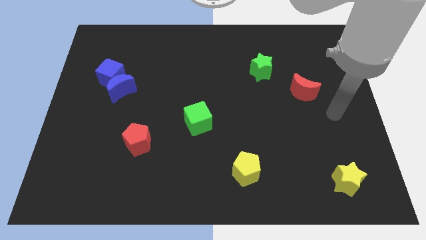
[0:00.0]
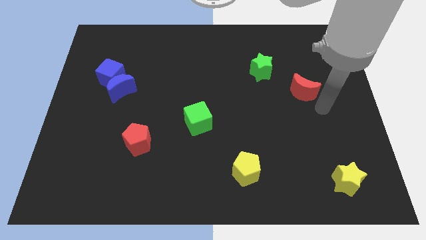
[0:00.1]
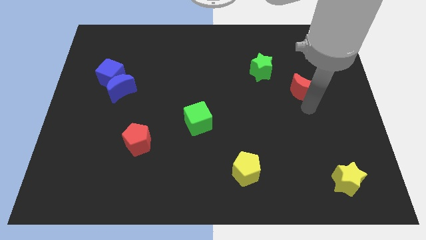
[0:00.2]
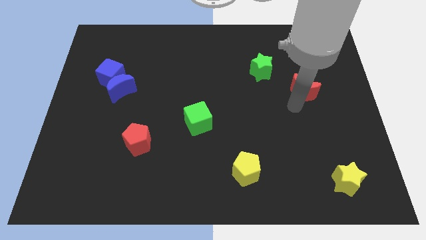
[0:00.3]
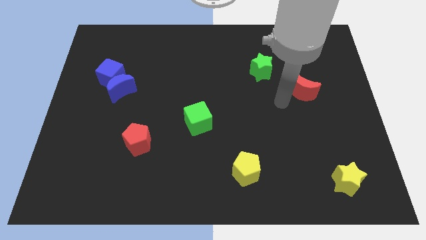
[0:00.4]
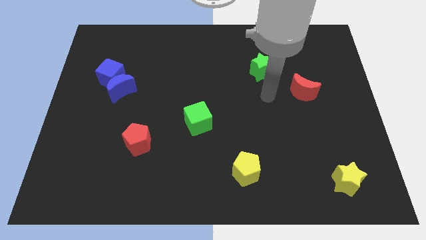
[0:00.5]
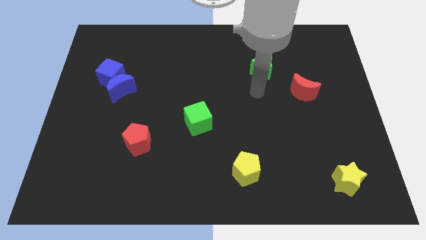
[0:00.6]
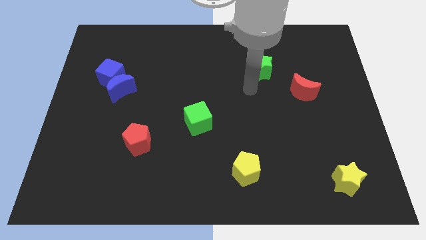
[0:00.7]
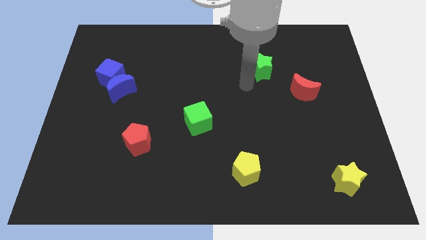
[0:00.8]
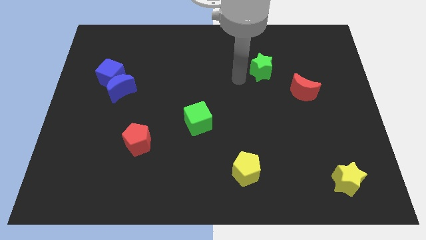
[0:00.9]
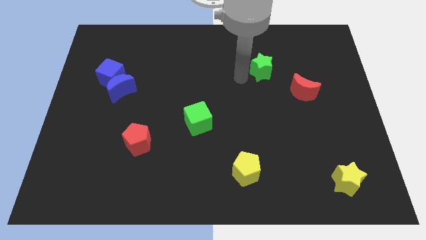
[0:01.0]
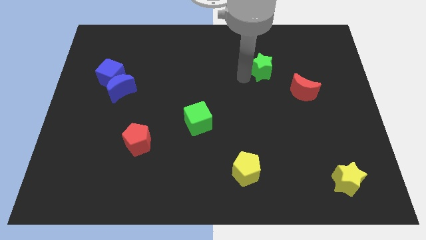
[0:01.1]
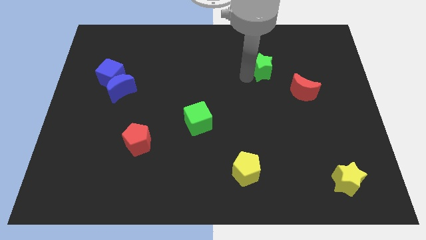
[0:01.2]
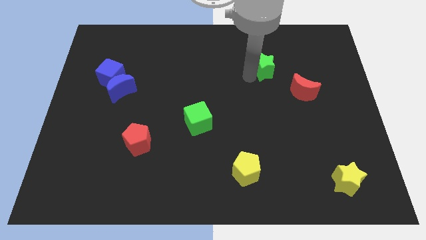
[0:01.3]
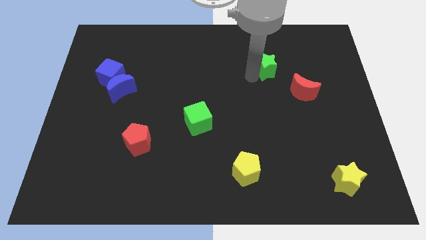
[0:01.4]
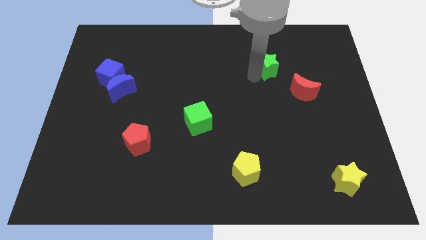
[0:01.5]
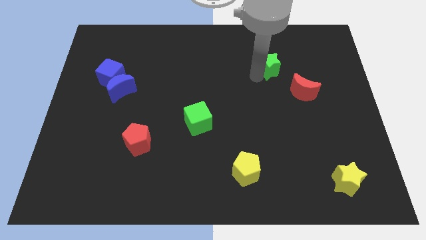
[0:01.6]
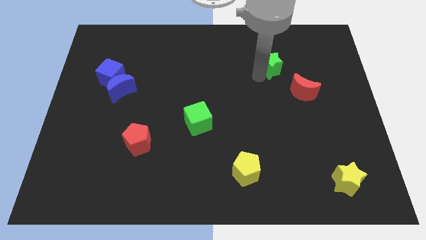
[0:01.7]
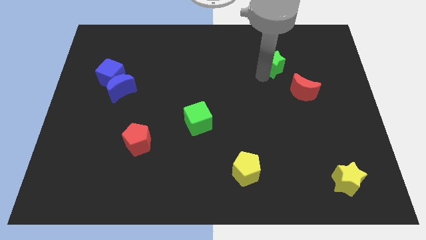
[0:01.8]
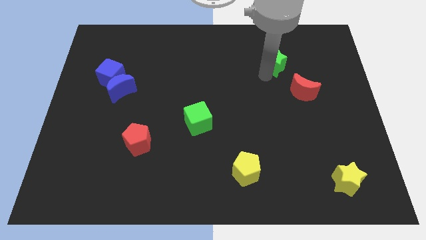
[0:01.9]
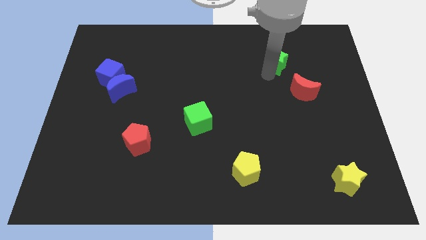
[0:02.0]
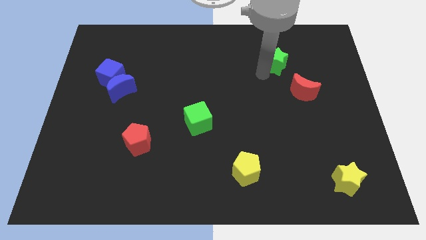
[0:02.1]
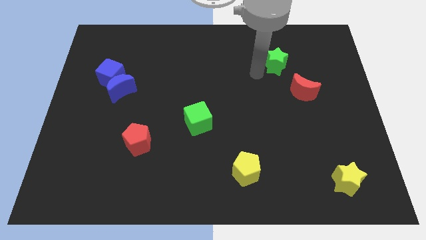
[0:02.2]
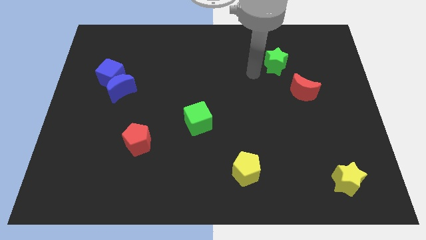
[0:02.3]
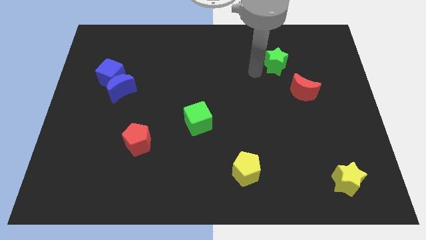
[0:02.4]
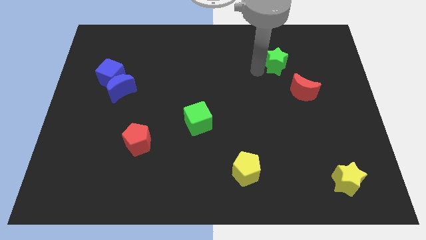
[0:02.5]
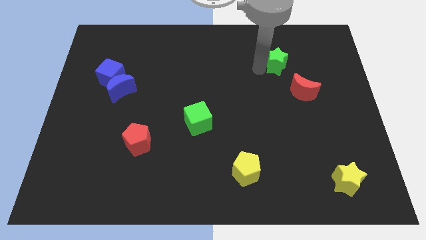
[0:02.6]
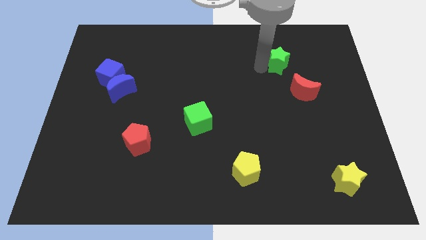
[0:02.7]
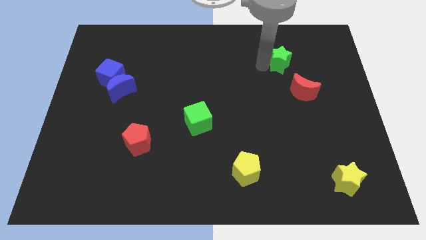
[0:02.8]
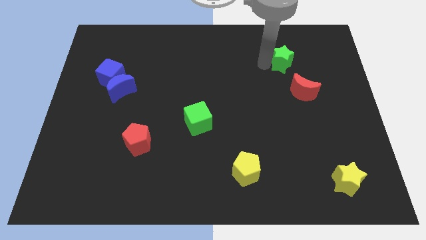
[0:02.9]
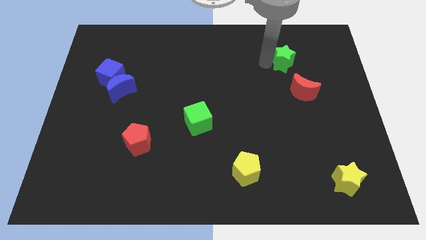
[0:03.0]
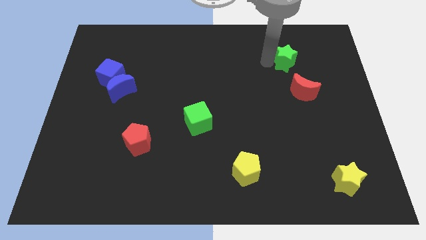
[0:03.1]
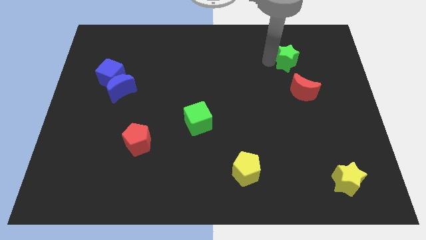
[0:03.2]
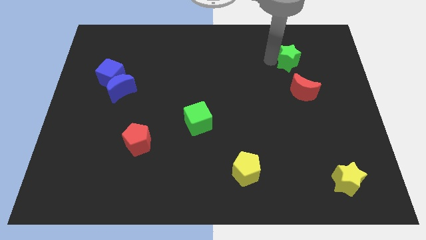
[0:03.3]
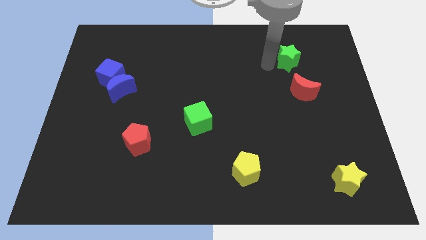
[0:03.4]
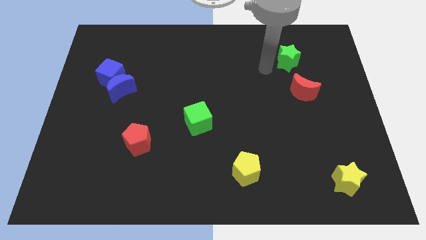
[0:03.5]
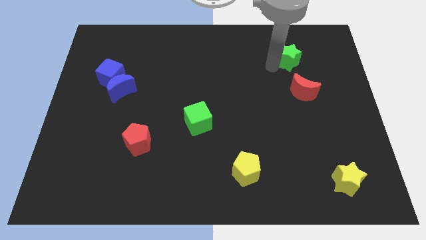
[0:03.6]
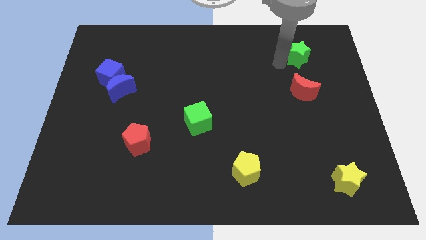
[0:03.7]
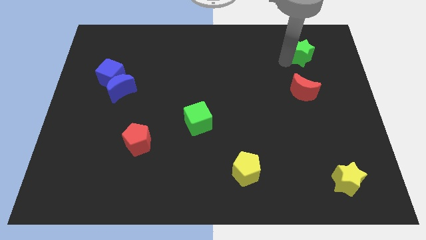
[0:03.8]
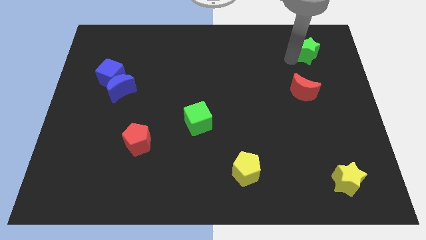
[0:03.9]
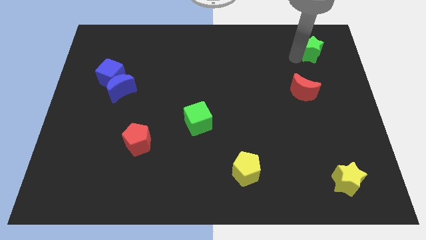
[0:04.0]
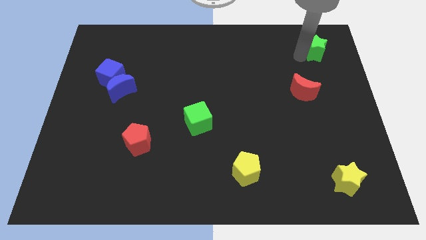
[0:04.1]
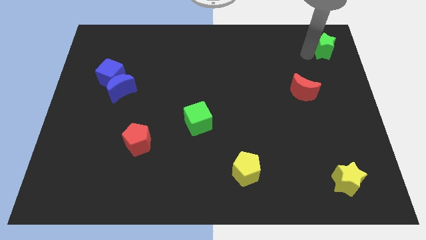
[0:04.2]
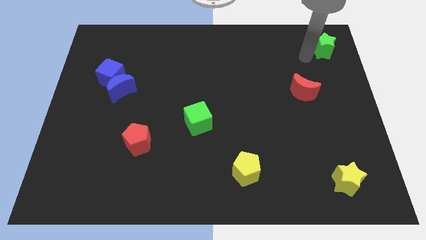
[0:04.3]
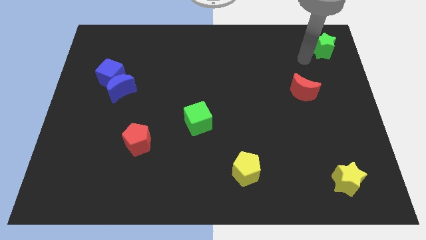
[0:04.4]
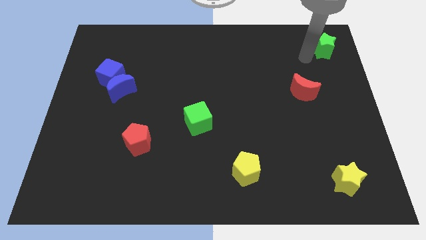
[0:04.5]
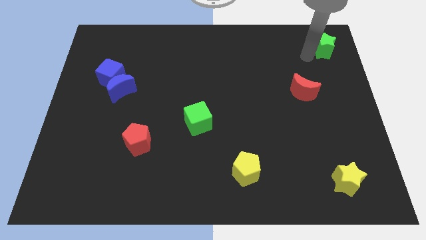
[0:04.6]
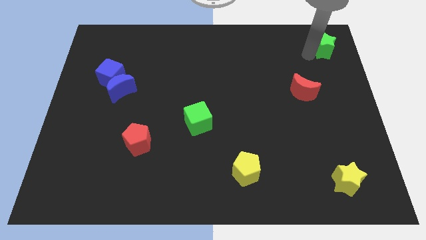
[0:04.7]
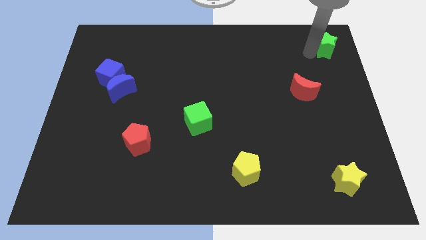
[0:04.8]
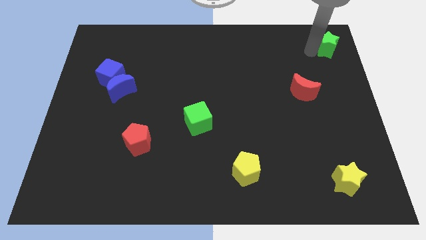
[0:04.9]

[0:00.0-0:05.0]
push the green star to the upper right corner

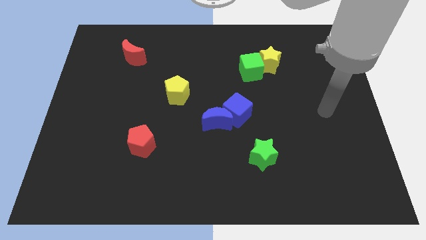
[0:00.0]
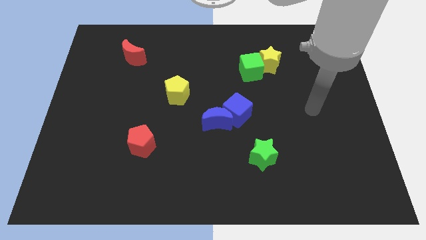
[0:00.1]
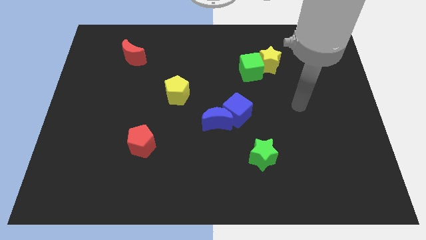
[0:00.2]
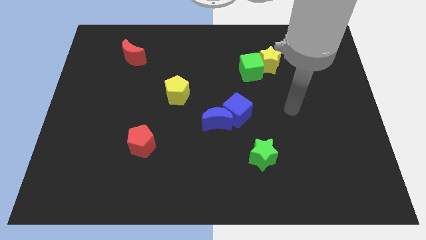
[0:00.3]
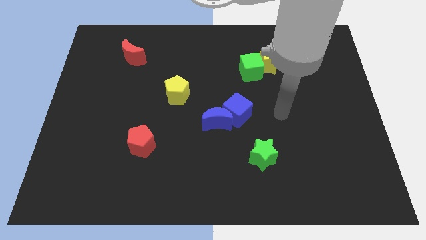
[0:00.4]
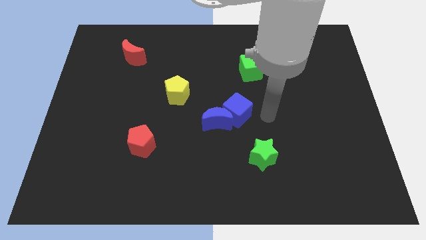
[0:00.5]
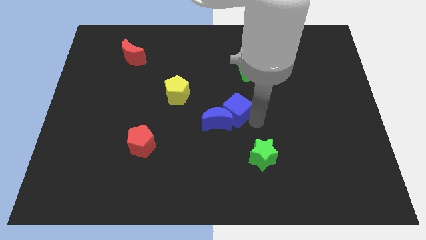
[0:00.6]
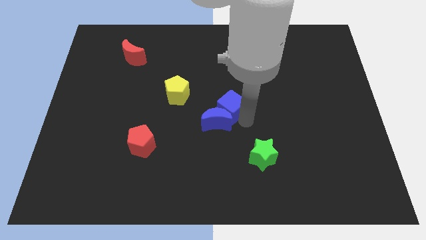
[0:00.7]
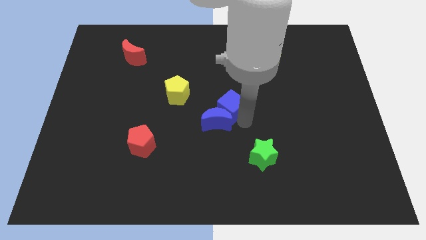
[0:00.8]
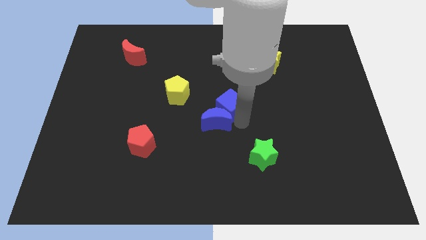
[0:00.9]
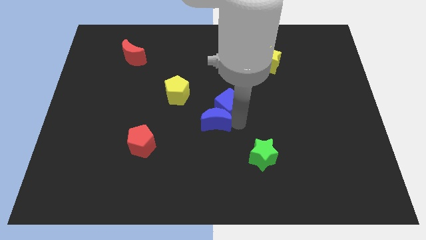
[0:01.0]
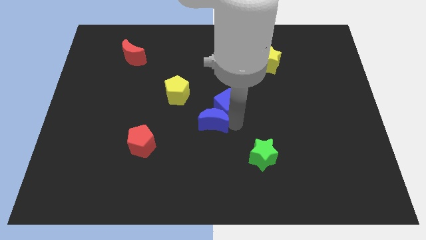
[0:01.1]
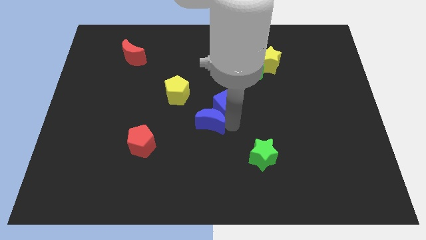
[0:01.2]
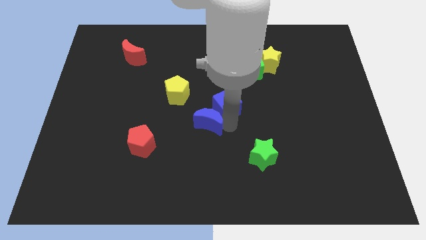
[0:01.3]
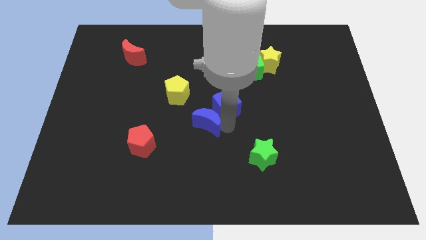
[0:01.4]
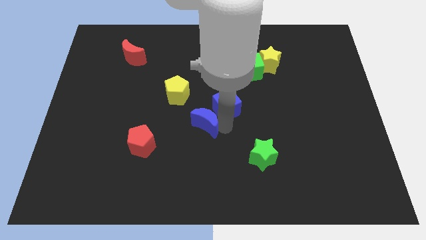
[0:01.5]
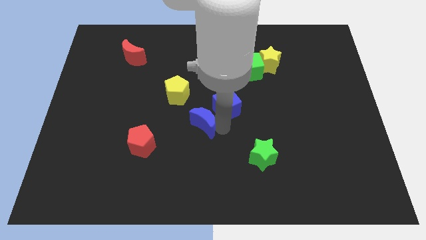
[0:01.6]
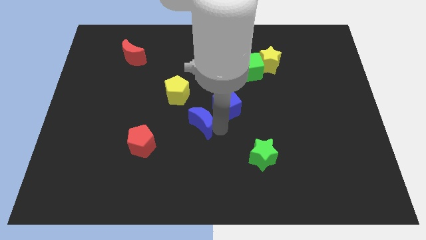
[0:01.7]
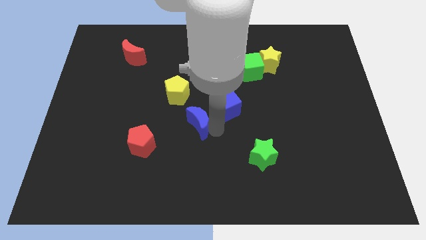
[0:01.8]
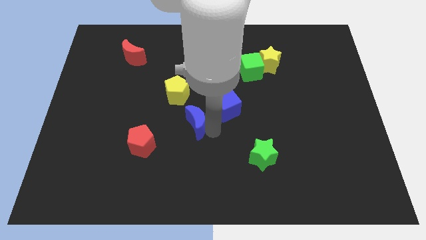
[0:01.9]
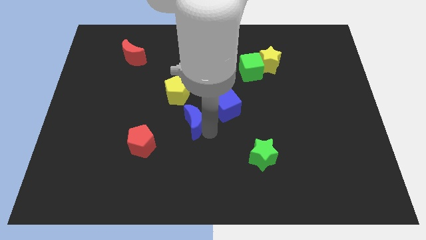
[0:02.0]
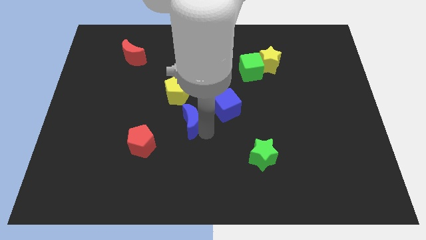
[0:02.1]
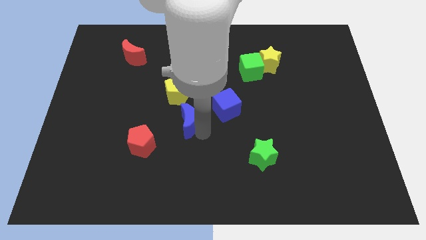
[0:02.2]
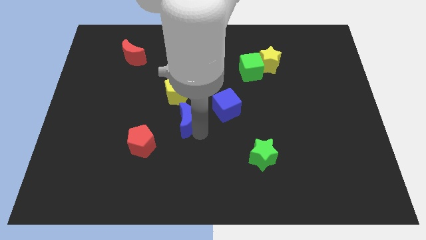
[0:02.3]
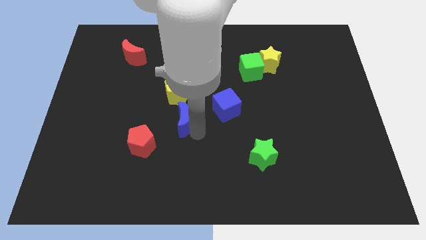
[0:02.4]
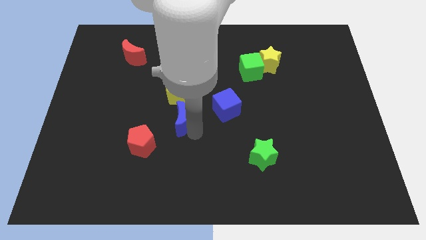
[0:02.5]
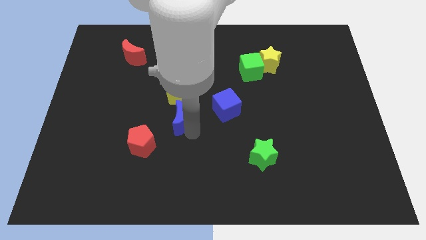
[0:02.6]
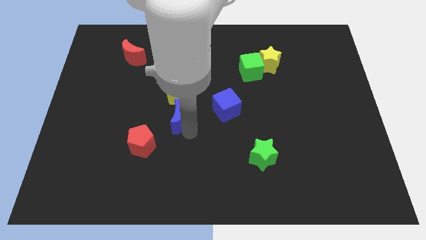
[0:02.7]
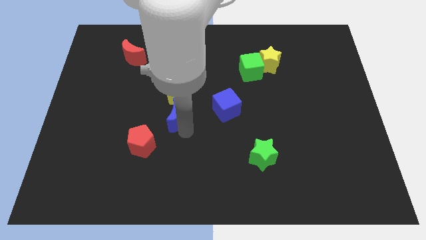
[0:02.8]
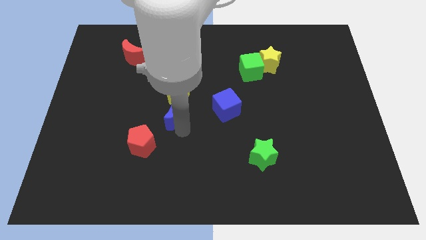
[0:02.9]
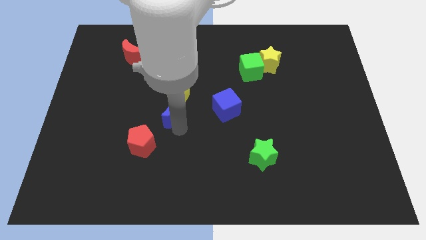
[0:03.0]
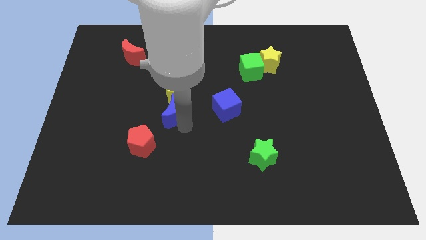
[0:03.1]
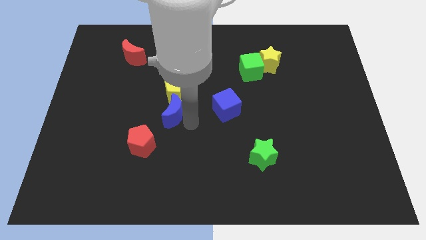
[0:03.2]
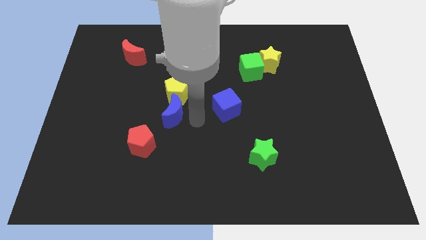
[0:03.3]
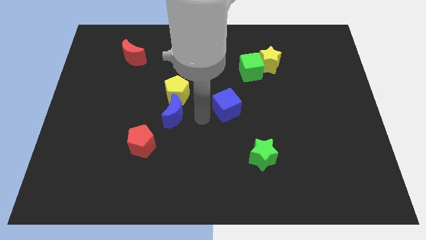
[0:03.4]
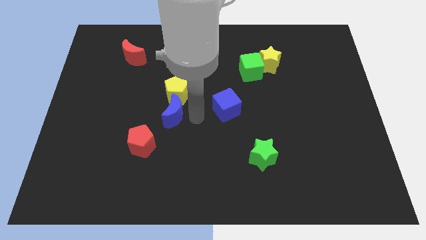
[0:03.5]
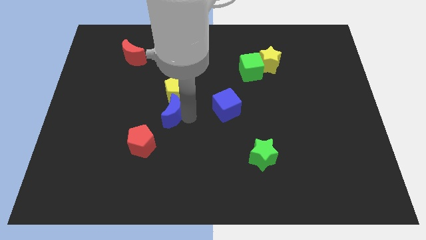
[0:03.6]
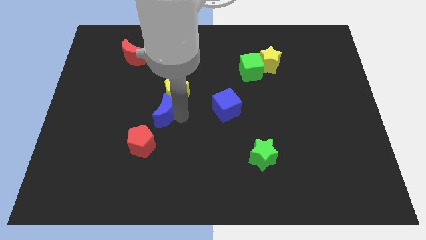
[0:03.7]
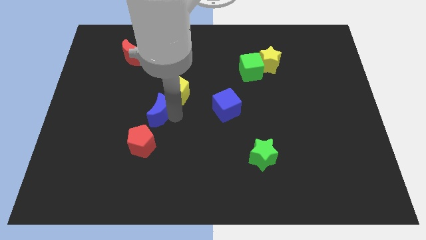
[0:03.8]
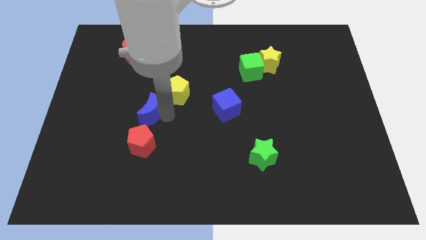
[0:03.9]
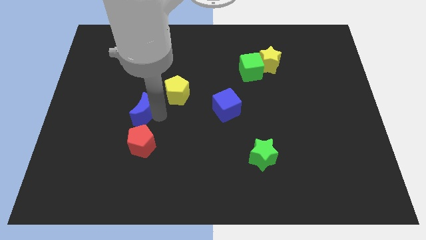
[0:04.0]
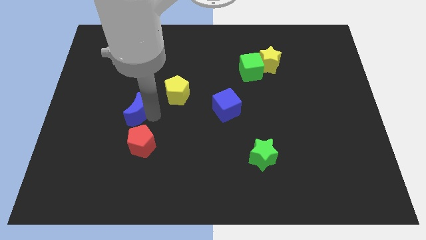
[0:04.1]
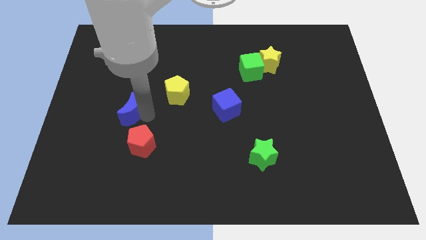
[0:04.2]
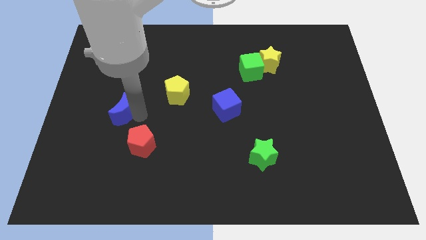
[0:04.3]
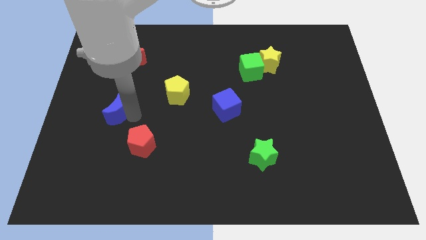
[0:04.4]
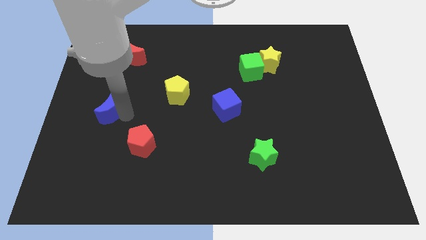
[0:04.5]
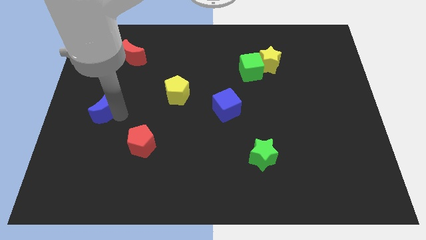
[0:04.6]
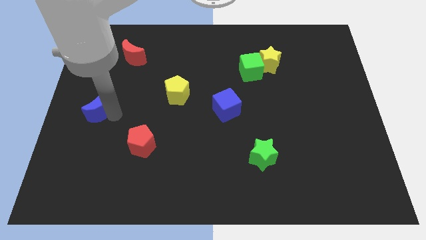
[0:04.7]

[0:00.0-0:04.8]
put the blue moon to the left side of the board
